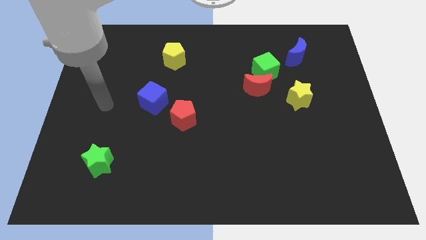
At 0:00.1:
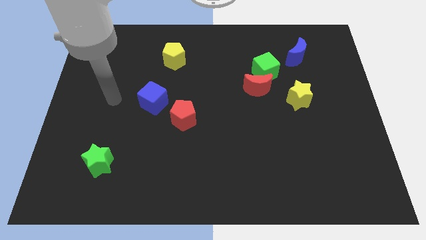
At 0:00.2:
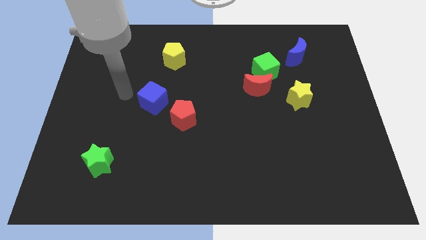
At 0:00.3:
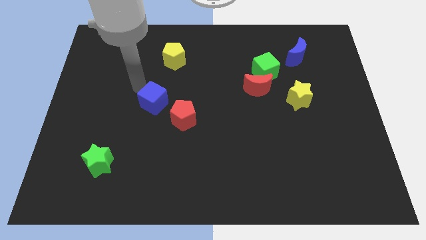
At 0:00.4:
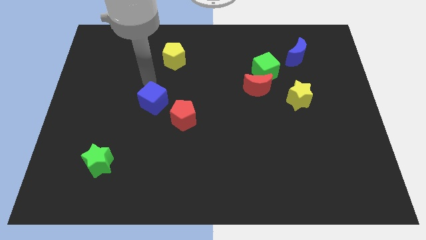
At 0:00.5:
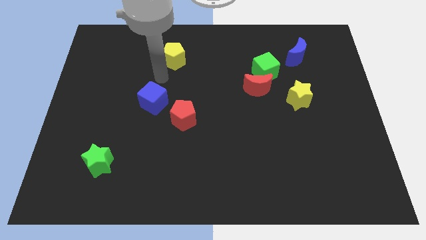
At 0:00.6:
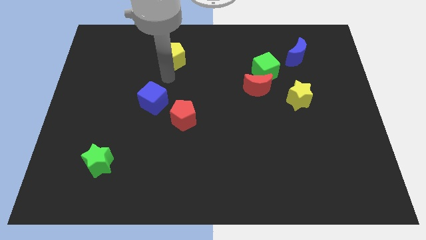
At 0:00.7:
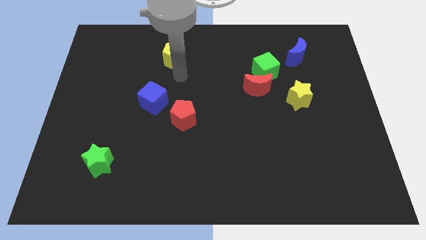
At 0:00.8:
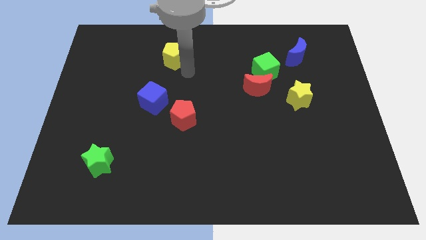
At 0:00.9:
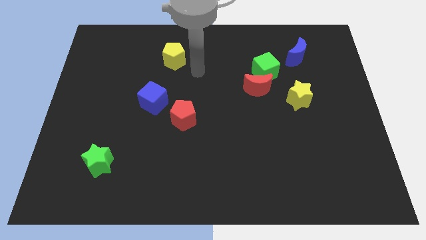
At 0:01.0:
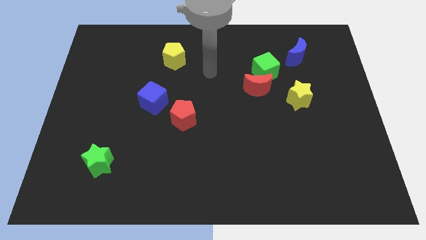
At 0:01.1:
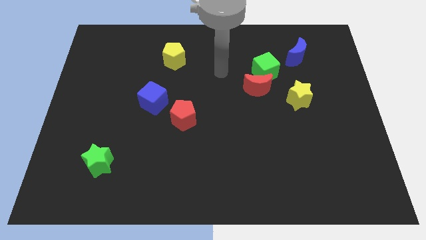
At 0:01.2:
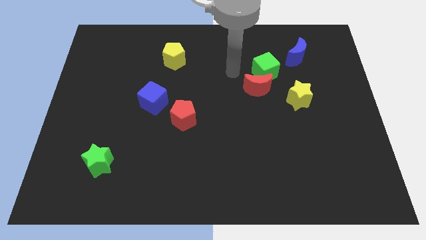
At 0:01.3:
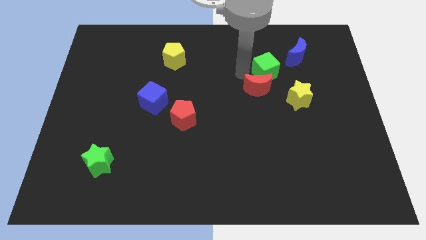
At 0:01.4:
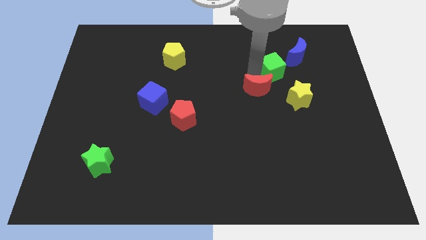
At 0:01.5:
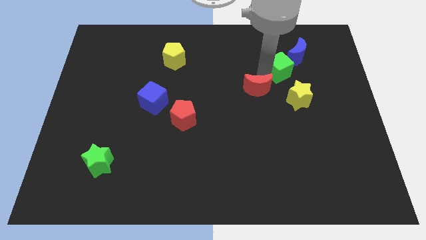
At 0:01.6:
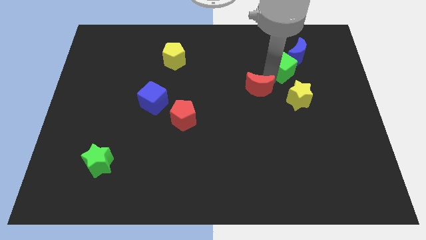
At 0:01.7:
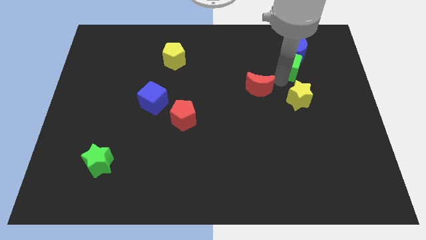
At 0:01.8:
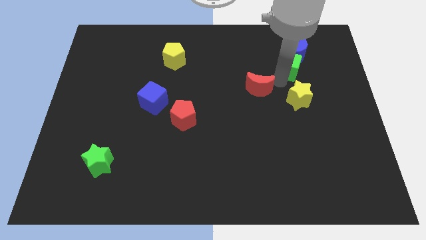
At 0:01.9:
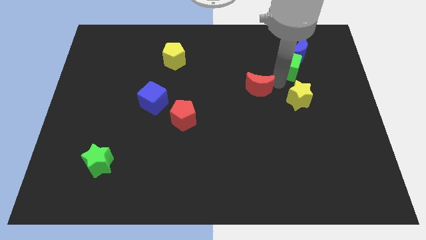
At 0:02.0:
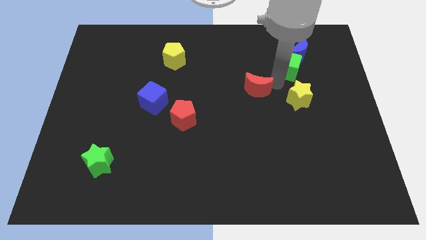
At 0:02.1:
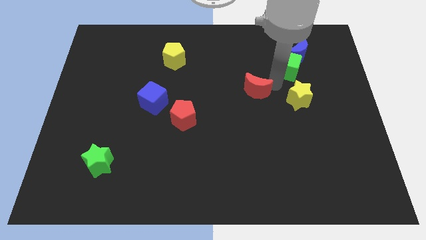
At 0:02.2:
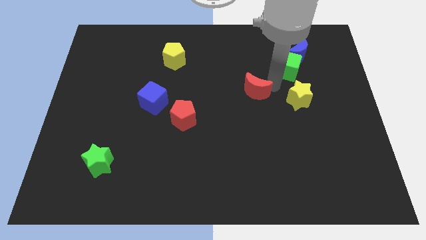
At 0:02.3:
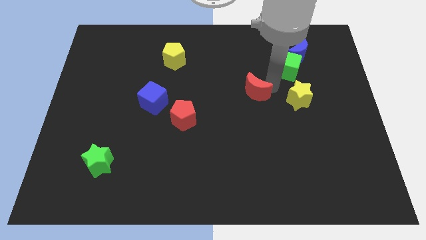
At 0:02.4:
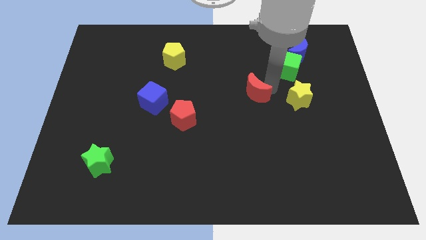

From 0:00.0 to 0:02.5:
separate the red moon from the green cube and yellow star

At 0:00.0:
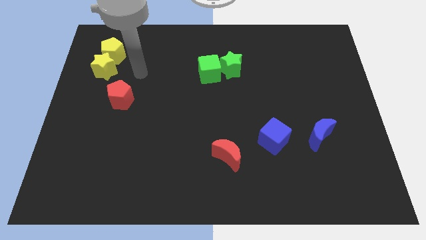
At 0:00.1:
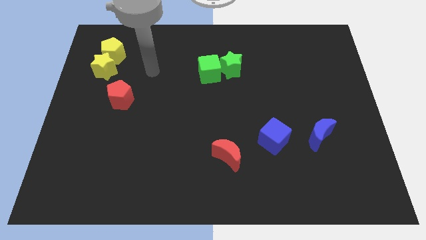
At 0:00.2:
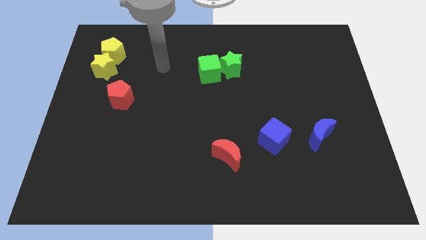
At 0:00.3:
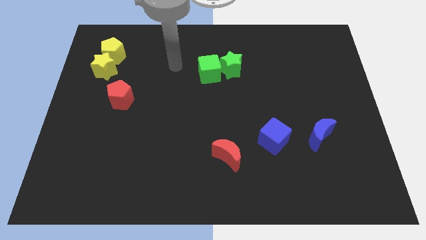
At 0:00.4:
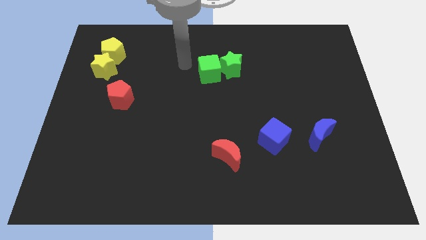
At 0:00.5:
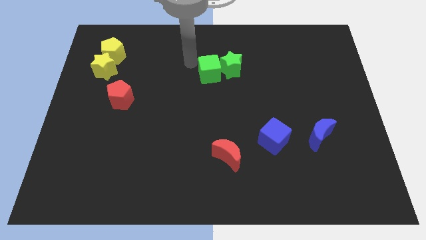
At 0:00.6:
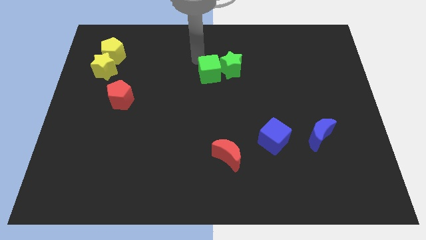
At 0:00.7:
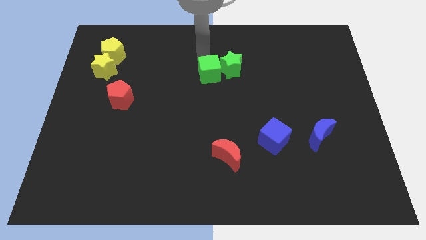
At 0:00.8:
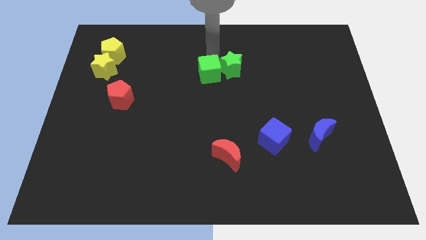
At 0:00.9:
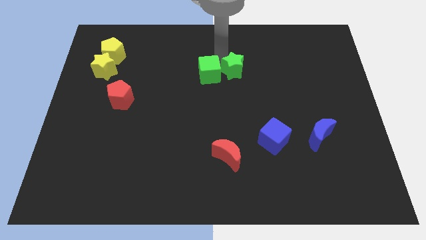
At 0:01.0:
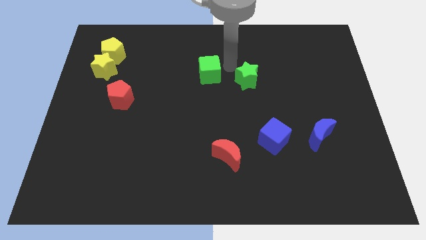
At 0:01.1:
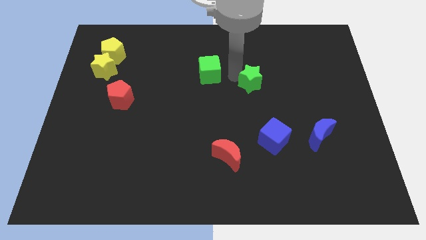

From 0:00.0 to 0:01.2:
separate the green cube from the green star

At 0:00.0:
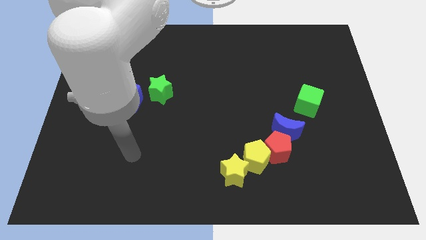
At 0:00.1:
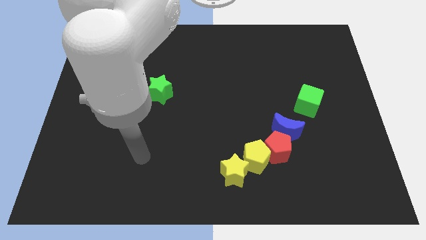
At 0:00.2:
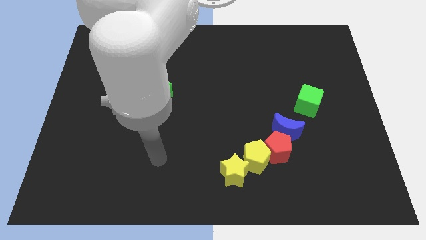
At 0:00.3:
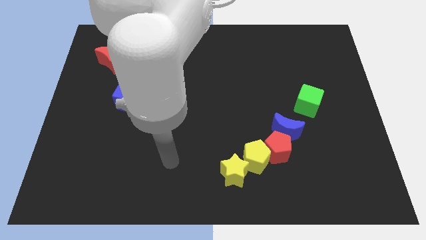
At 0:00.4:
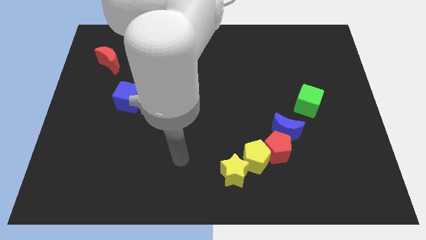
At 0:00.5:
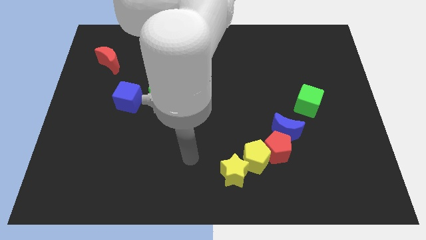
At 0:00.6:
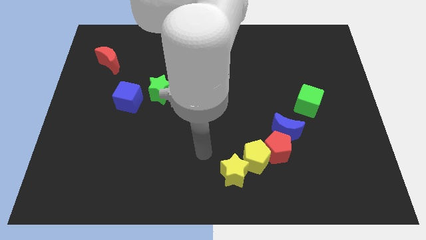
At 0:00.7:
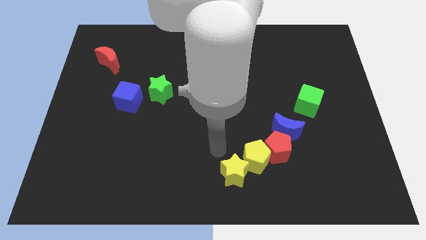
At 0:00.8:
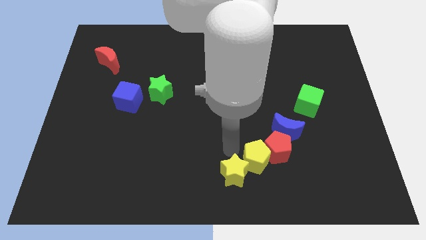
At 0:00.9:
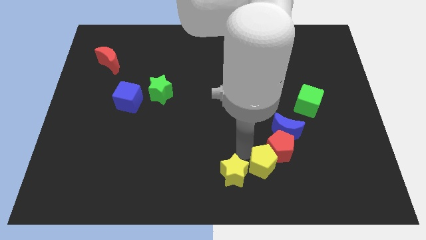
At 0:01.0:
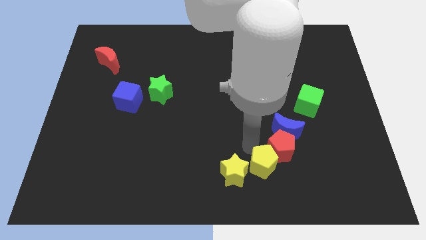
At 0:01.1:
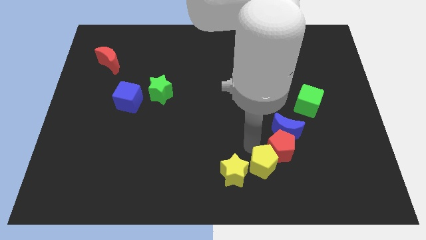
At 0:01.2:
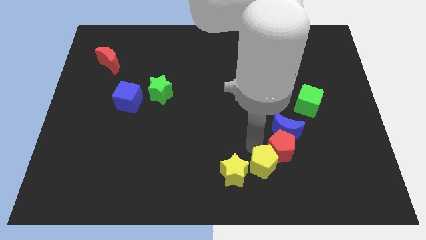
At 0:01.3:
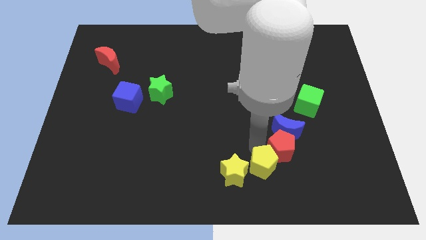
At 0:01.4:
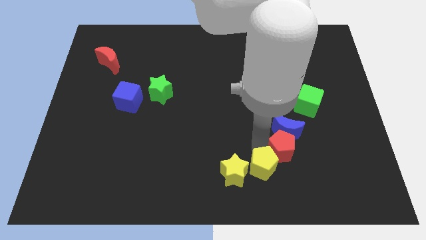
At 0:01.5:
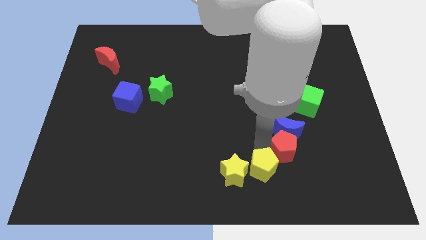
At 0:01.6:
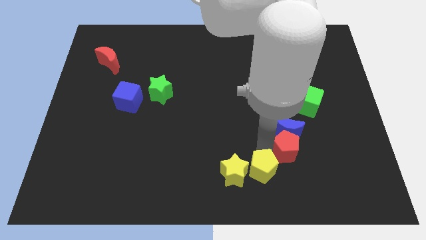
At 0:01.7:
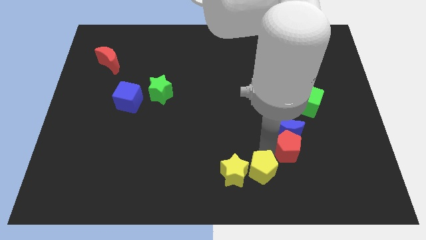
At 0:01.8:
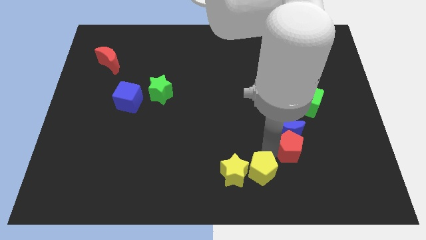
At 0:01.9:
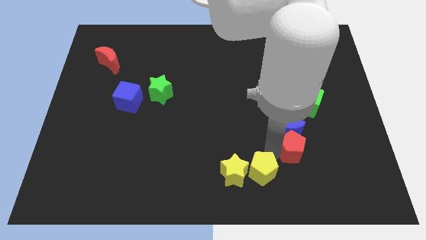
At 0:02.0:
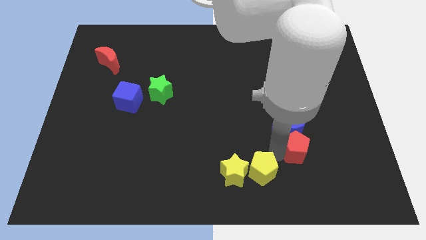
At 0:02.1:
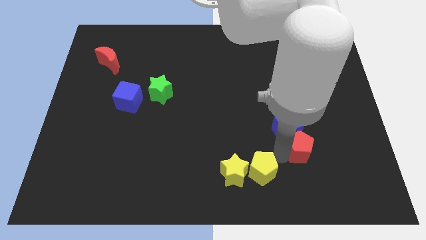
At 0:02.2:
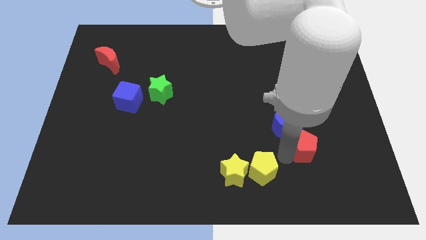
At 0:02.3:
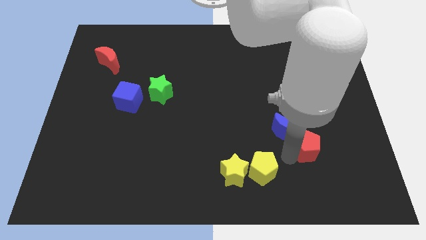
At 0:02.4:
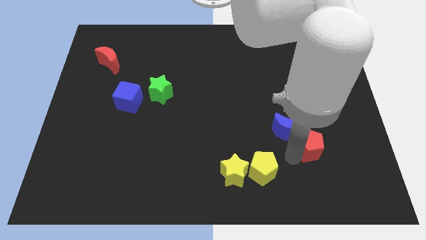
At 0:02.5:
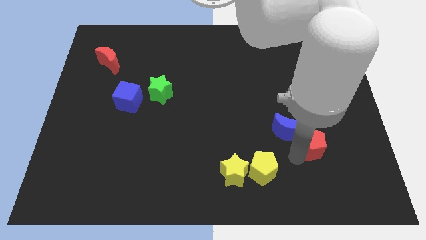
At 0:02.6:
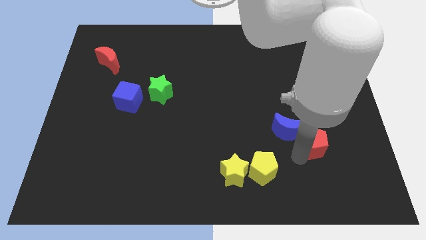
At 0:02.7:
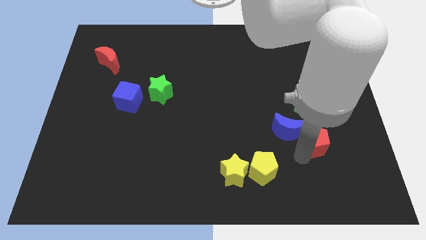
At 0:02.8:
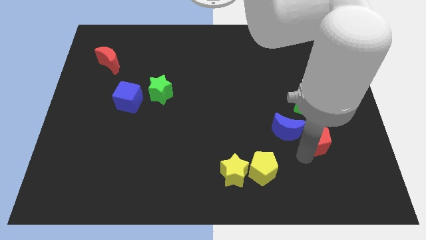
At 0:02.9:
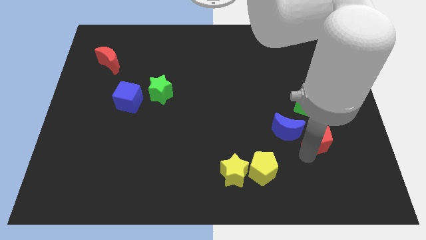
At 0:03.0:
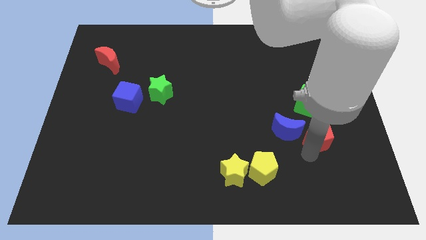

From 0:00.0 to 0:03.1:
move the red pentagon away from the blue moon and yellow pentagon

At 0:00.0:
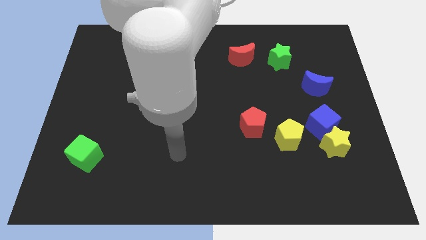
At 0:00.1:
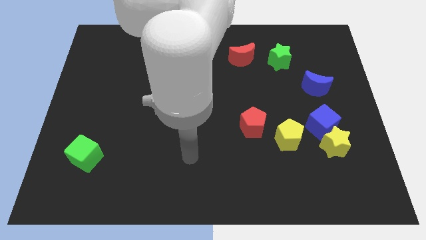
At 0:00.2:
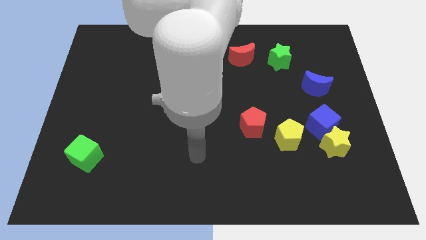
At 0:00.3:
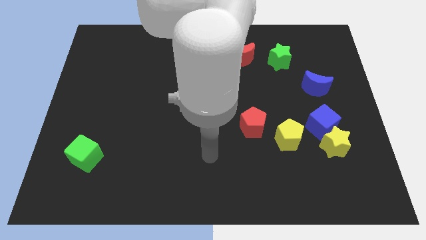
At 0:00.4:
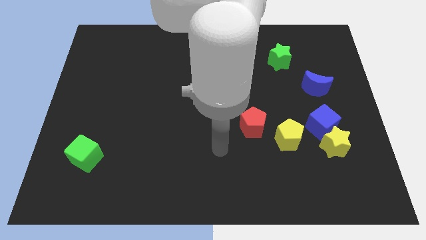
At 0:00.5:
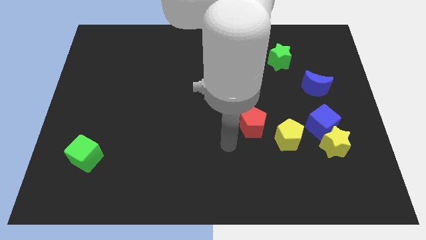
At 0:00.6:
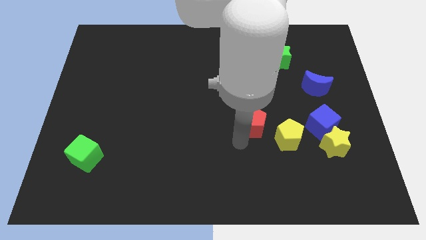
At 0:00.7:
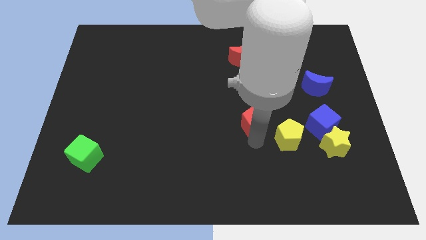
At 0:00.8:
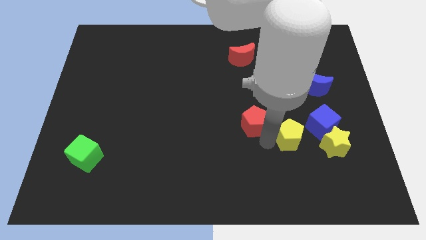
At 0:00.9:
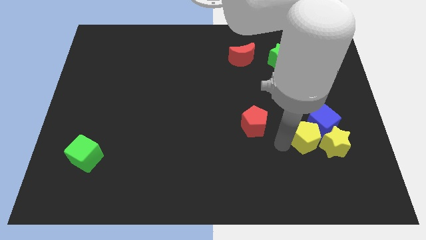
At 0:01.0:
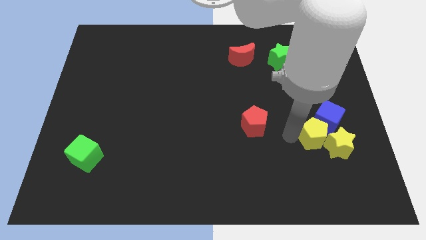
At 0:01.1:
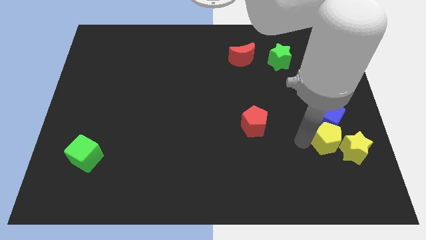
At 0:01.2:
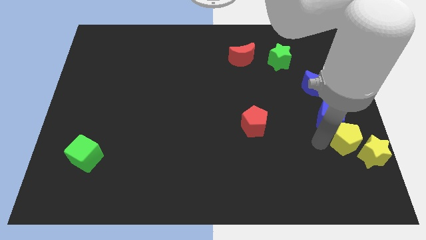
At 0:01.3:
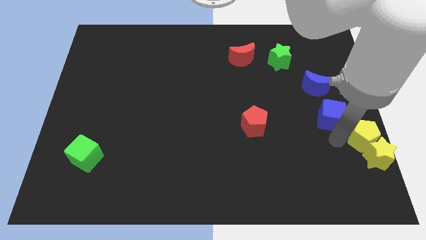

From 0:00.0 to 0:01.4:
move the blue cube away from the yellow star and yellow pentagon

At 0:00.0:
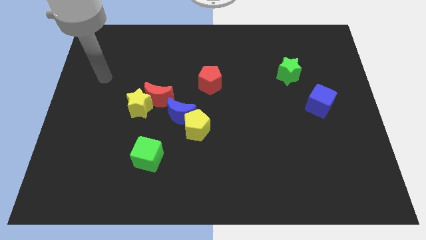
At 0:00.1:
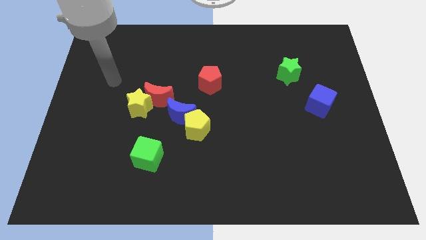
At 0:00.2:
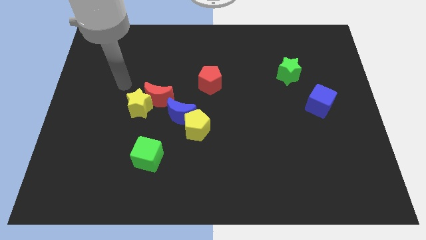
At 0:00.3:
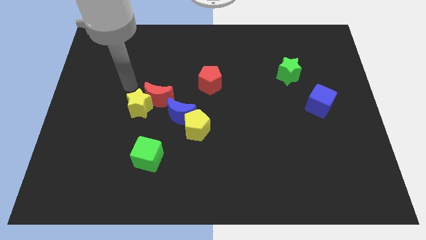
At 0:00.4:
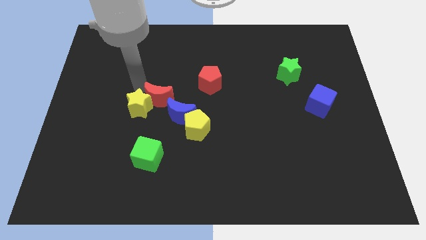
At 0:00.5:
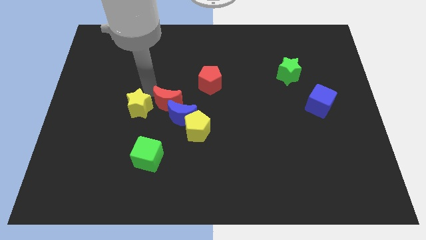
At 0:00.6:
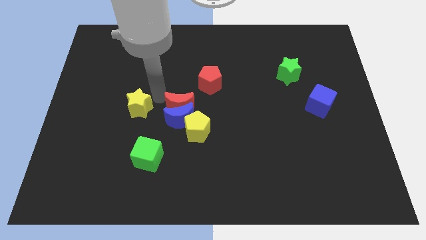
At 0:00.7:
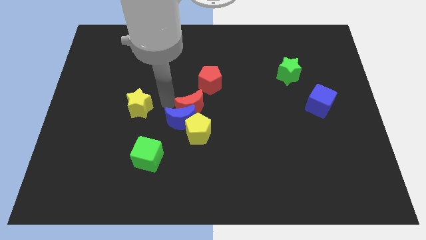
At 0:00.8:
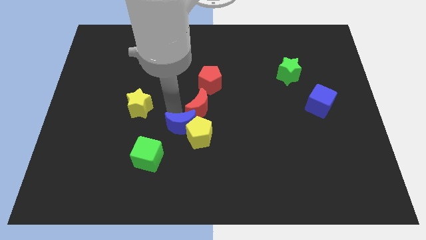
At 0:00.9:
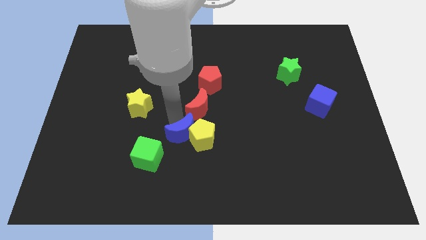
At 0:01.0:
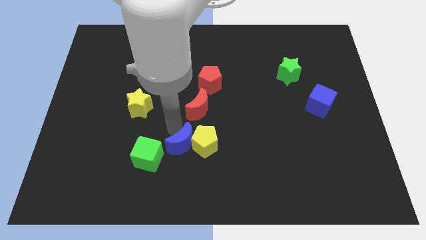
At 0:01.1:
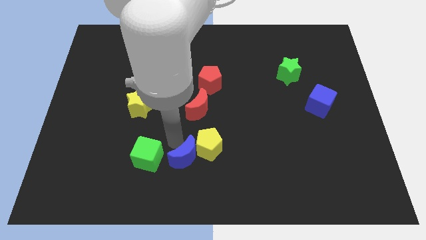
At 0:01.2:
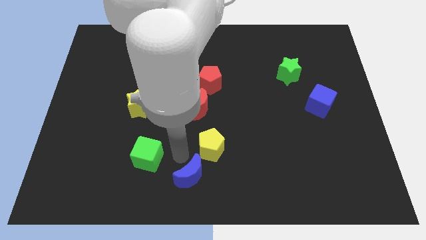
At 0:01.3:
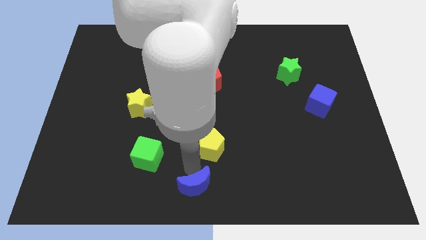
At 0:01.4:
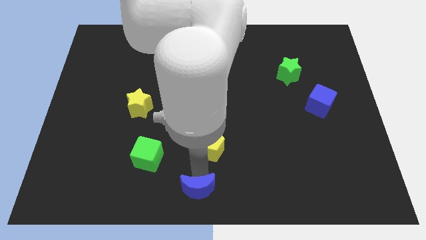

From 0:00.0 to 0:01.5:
separate the yellow pentagon from the blue moon
